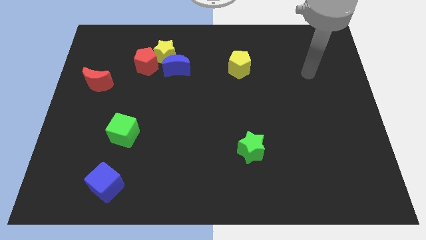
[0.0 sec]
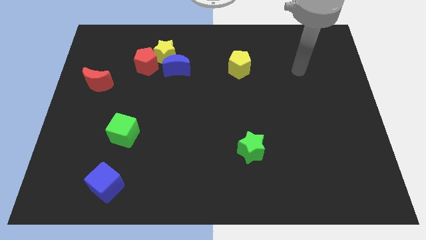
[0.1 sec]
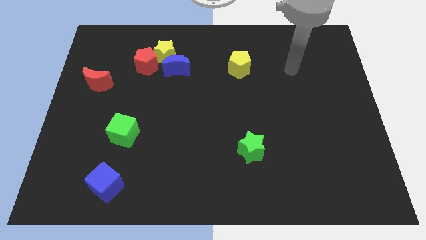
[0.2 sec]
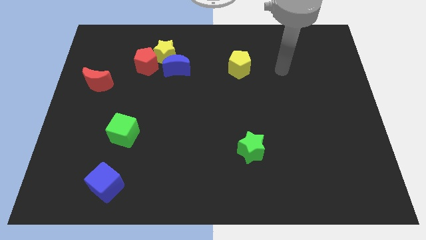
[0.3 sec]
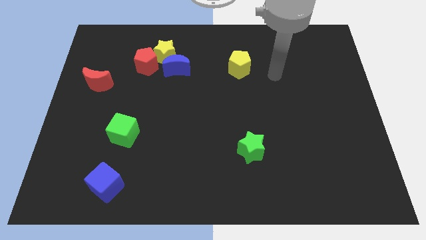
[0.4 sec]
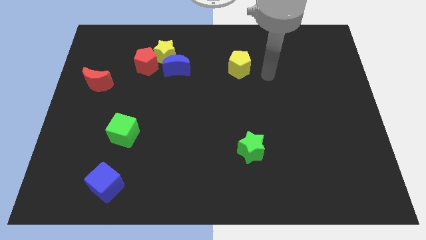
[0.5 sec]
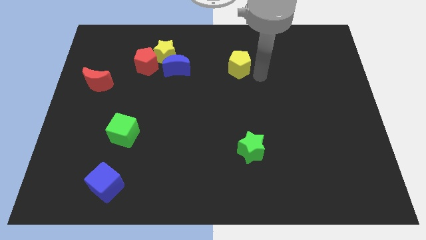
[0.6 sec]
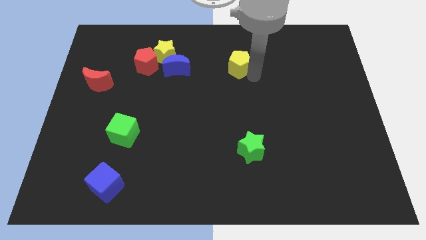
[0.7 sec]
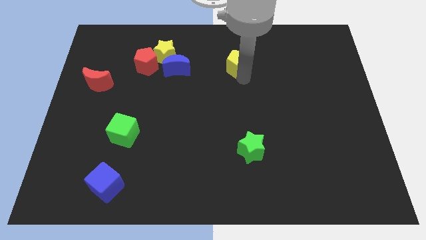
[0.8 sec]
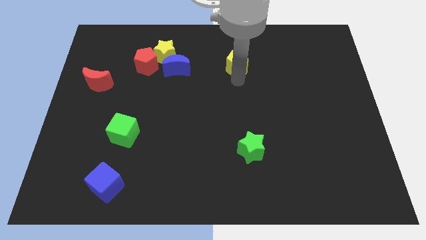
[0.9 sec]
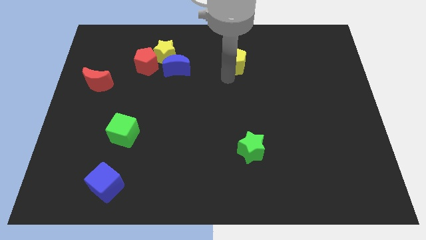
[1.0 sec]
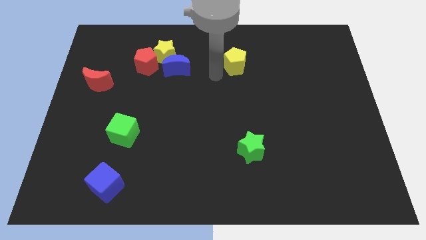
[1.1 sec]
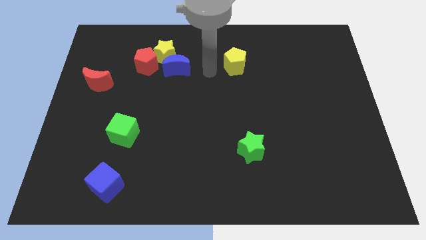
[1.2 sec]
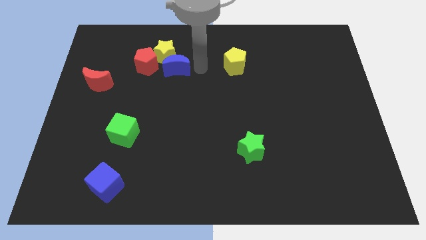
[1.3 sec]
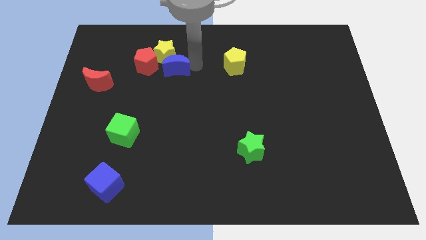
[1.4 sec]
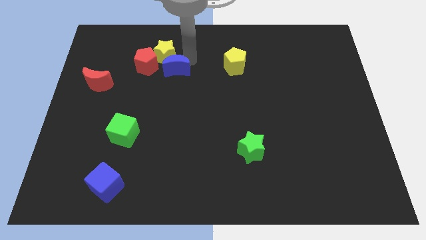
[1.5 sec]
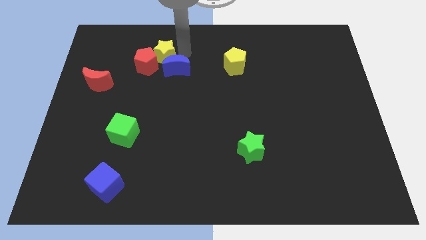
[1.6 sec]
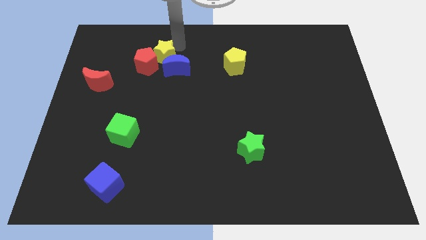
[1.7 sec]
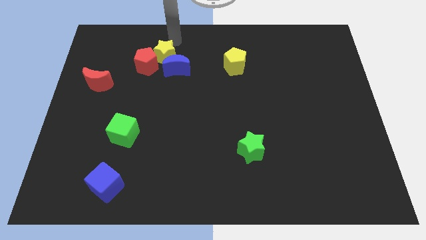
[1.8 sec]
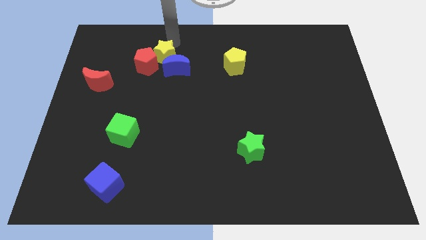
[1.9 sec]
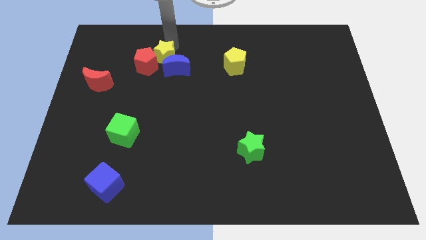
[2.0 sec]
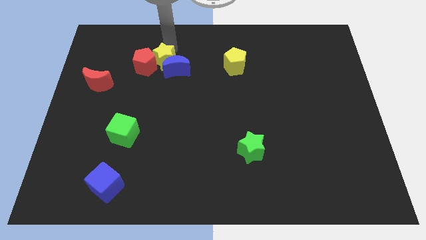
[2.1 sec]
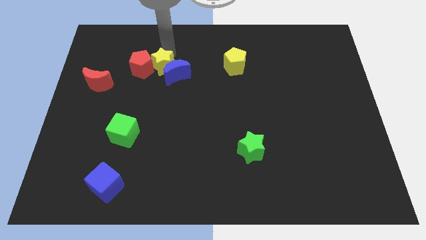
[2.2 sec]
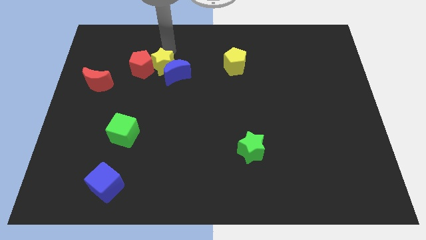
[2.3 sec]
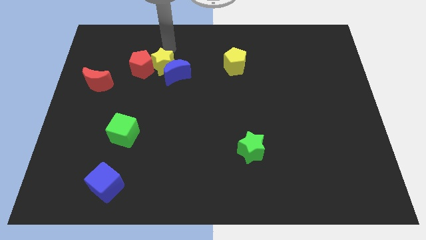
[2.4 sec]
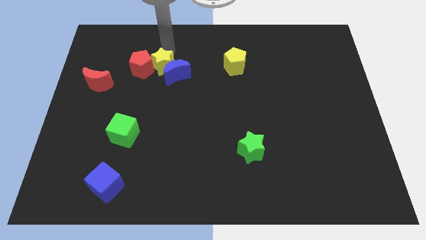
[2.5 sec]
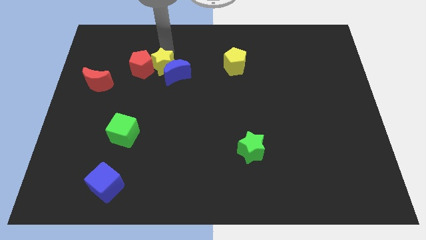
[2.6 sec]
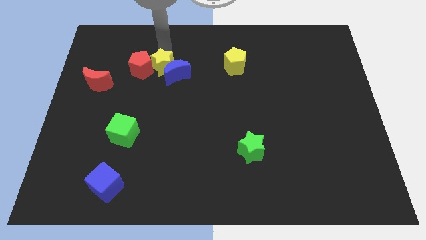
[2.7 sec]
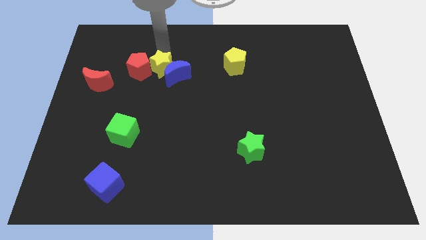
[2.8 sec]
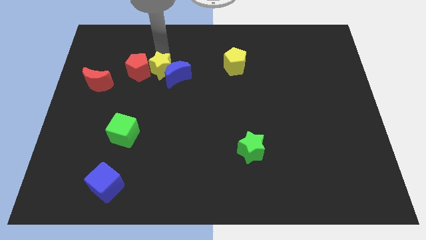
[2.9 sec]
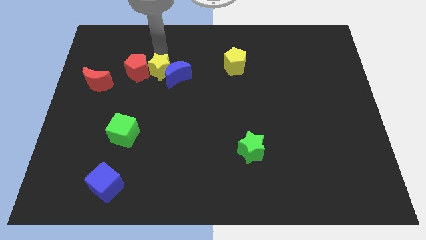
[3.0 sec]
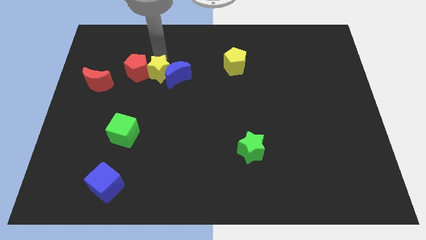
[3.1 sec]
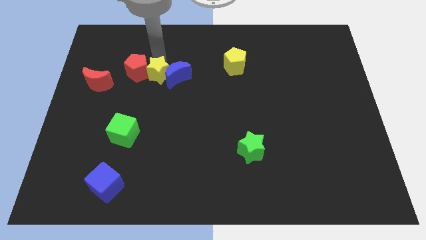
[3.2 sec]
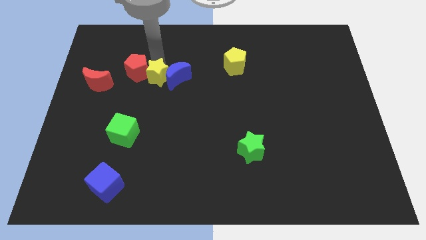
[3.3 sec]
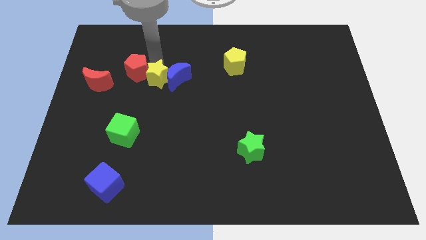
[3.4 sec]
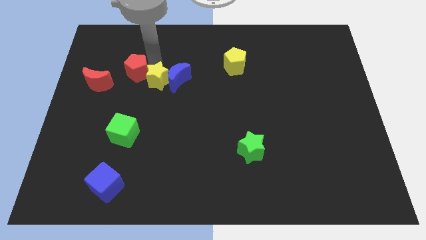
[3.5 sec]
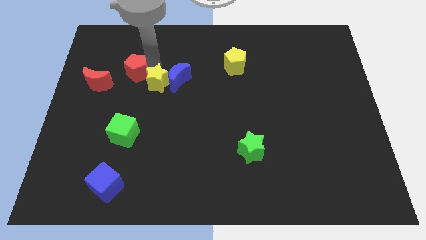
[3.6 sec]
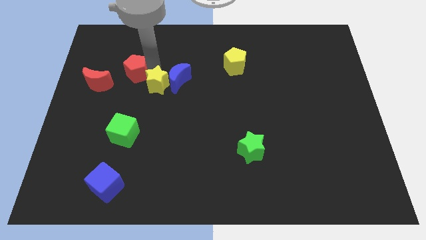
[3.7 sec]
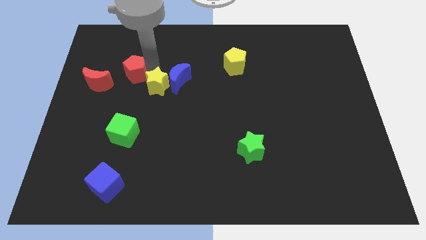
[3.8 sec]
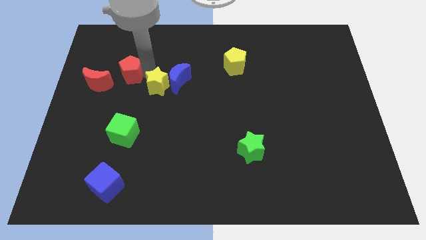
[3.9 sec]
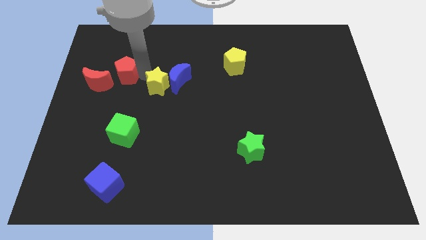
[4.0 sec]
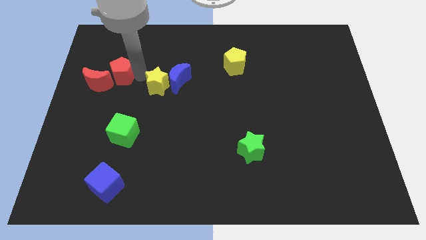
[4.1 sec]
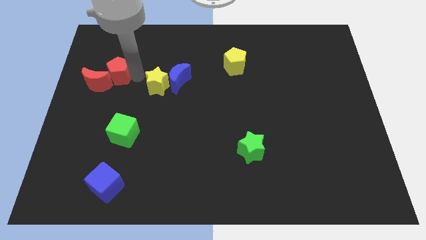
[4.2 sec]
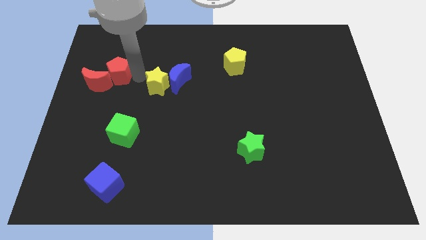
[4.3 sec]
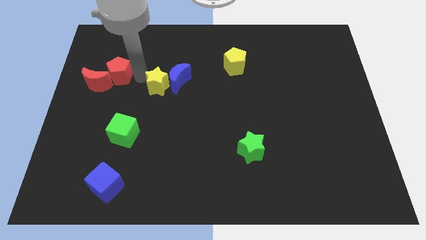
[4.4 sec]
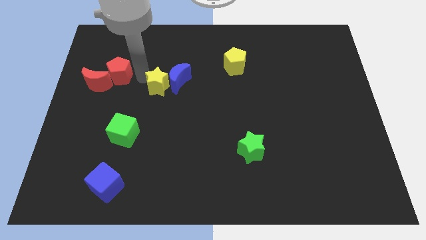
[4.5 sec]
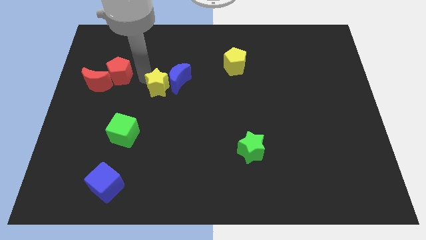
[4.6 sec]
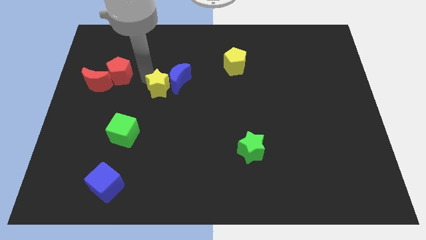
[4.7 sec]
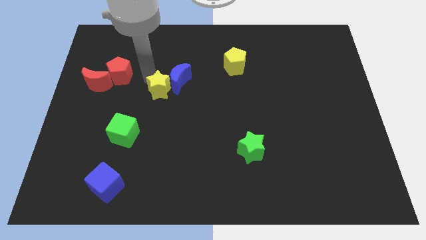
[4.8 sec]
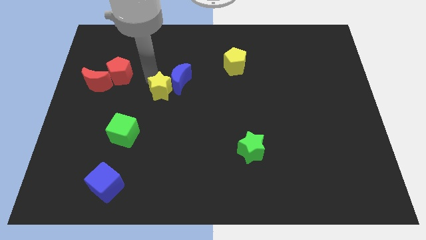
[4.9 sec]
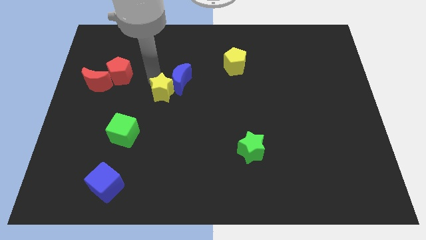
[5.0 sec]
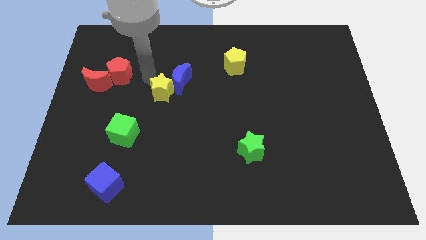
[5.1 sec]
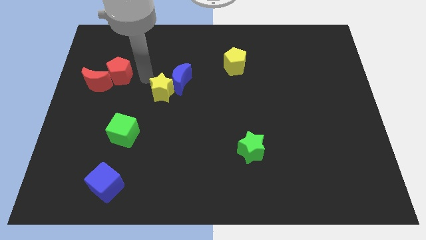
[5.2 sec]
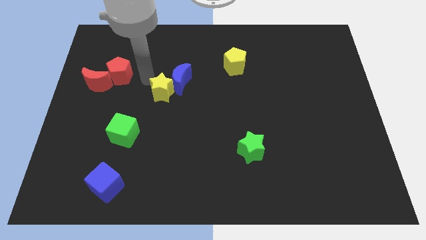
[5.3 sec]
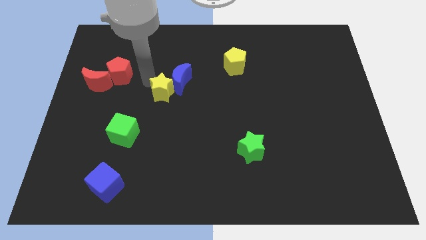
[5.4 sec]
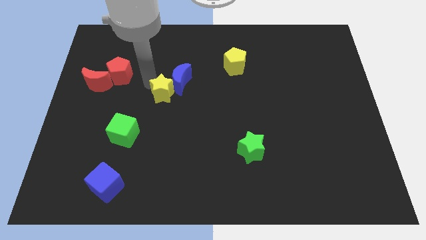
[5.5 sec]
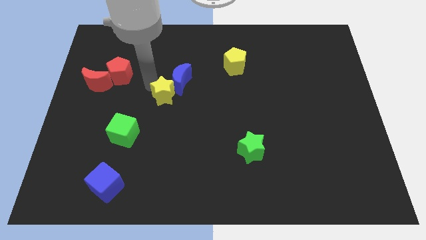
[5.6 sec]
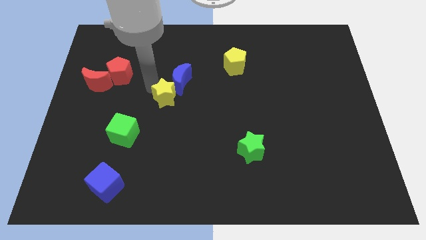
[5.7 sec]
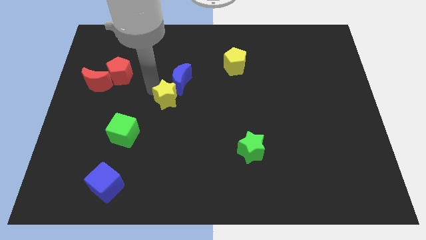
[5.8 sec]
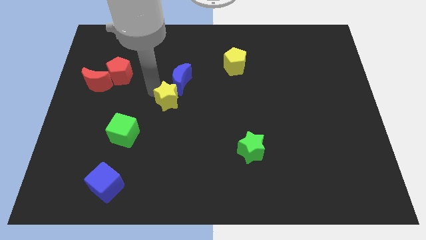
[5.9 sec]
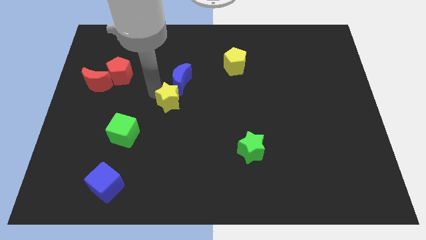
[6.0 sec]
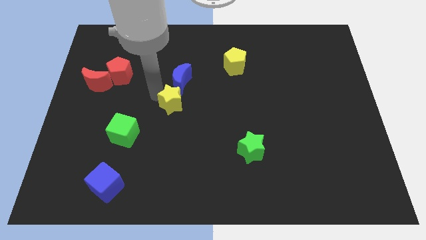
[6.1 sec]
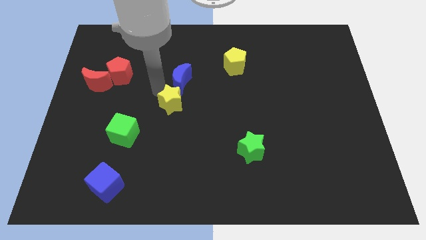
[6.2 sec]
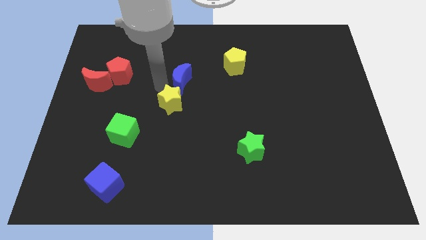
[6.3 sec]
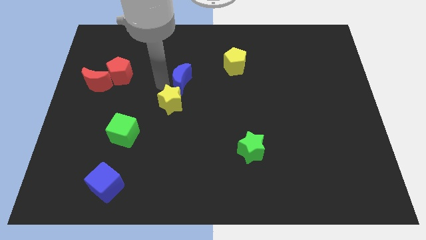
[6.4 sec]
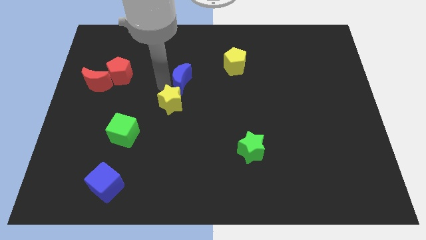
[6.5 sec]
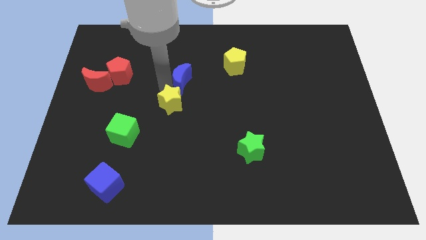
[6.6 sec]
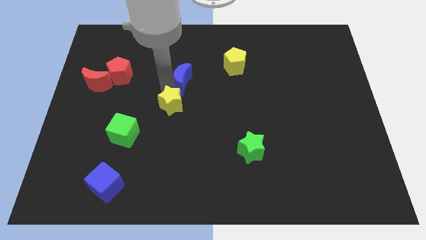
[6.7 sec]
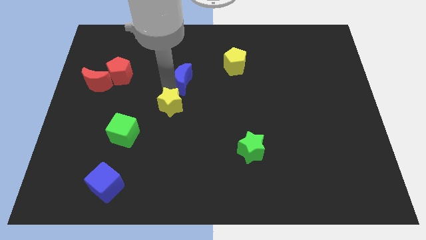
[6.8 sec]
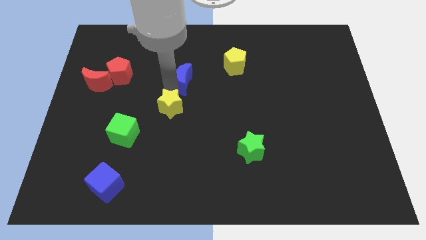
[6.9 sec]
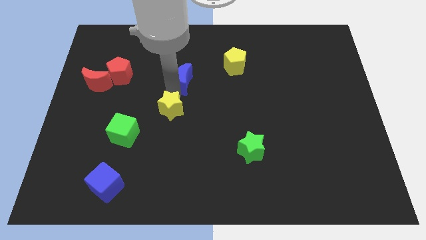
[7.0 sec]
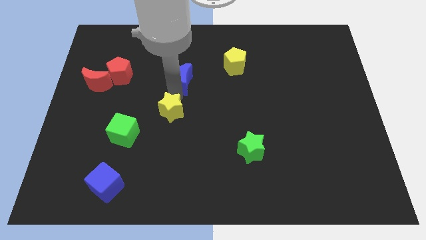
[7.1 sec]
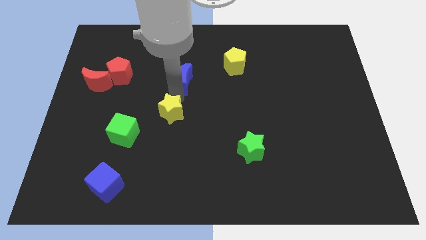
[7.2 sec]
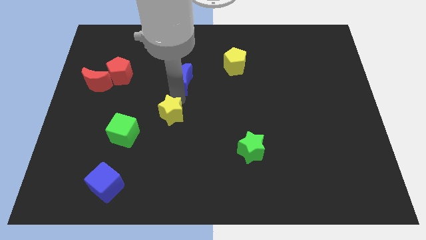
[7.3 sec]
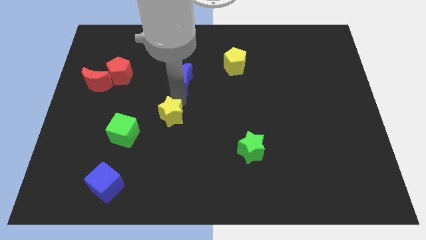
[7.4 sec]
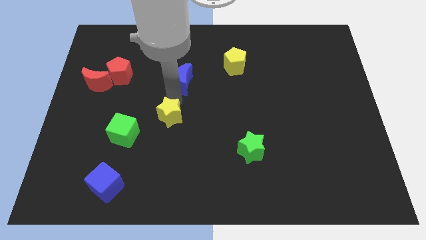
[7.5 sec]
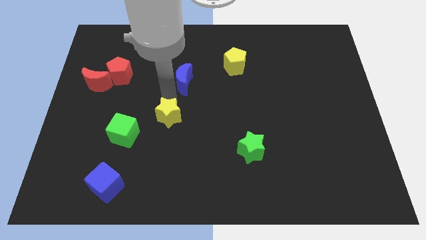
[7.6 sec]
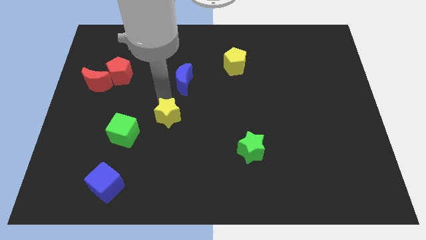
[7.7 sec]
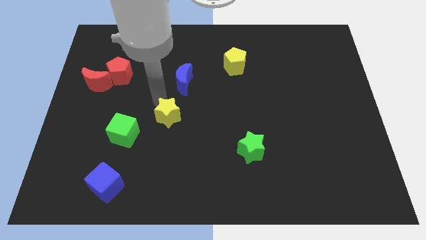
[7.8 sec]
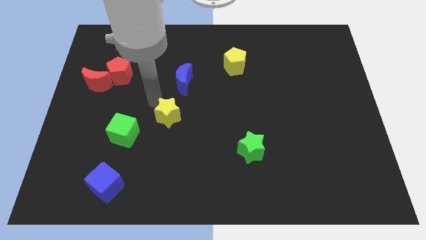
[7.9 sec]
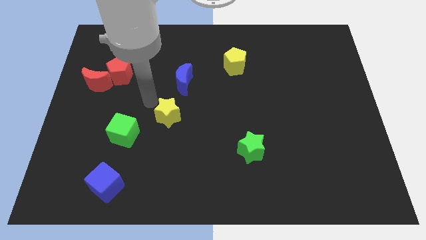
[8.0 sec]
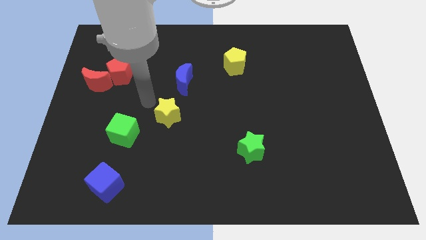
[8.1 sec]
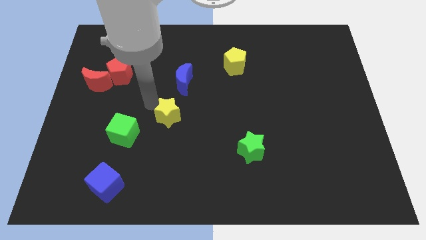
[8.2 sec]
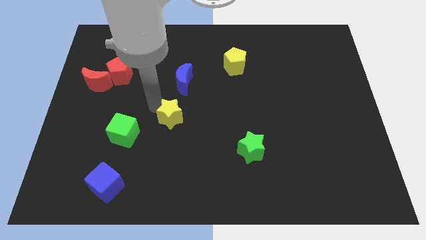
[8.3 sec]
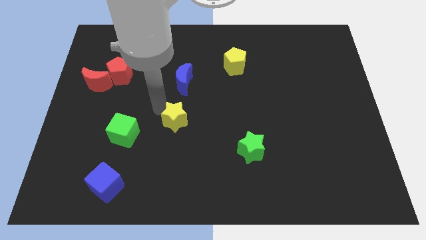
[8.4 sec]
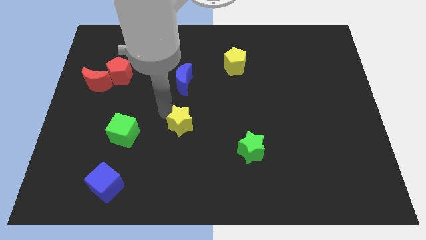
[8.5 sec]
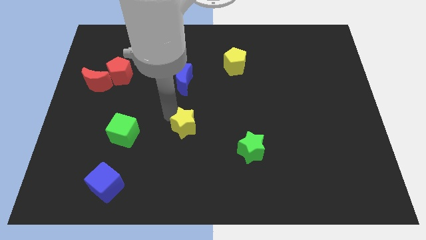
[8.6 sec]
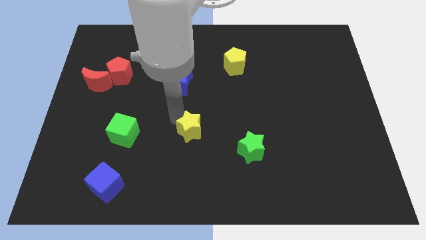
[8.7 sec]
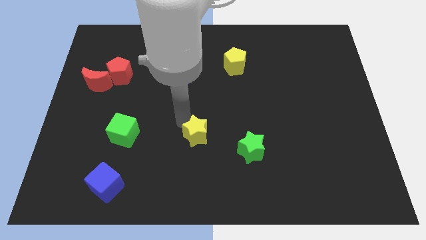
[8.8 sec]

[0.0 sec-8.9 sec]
move the yellow star left of the green star
